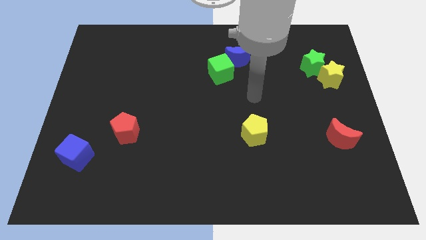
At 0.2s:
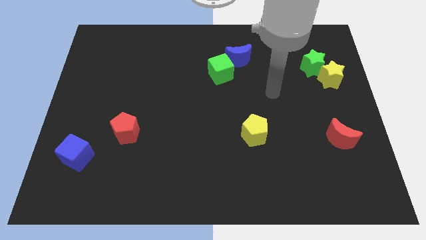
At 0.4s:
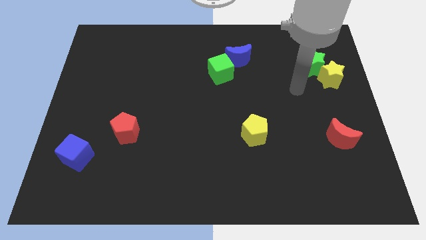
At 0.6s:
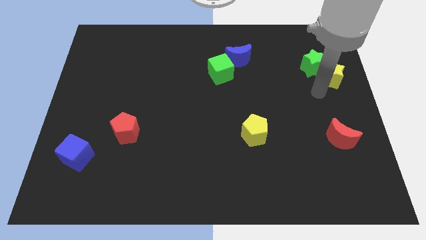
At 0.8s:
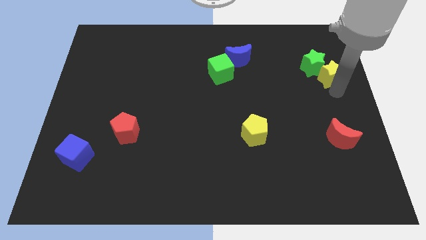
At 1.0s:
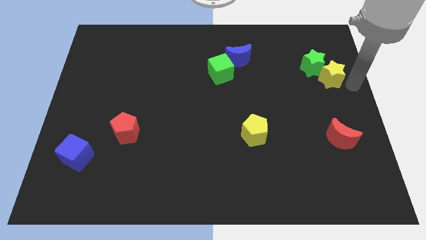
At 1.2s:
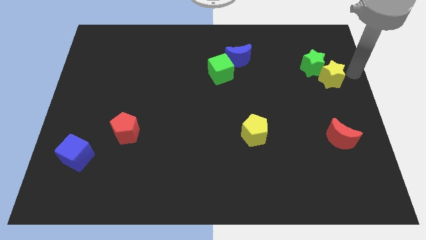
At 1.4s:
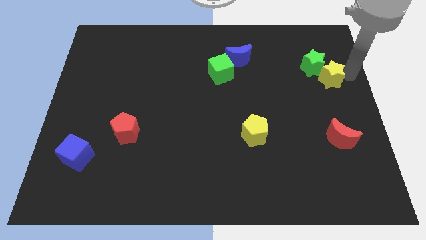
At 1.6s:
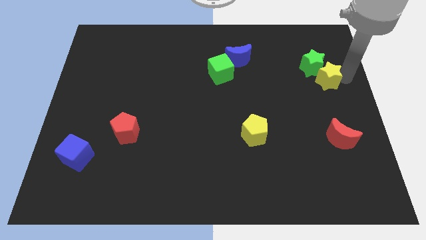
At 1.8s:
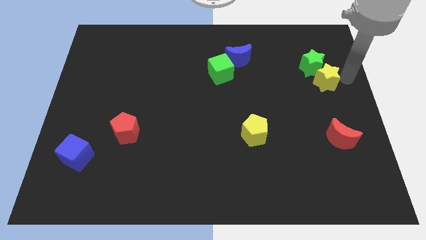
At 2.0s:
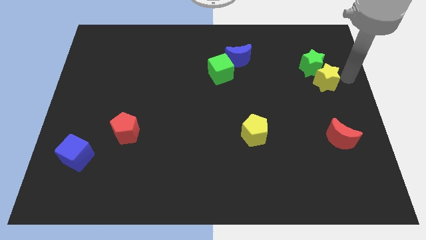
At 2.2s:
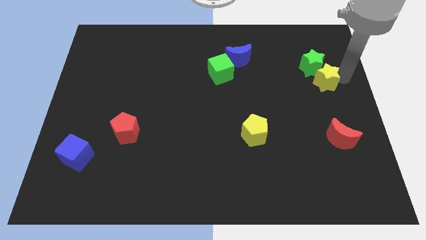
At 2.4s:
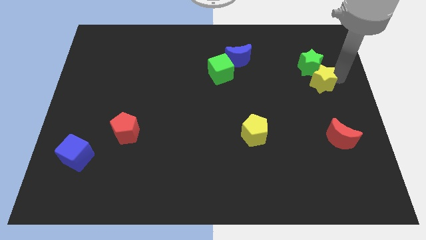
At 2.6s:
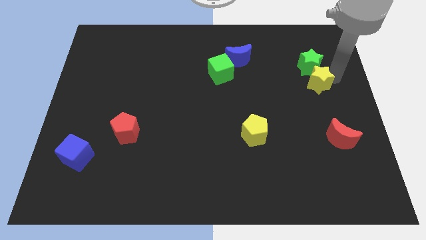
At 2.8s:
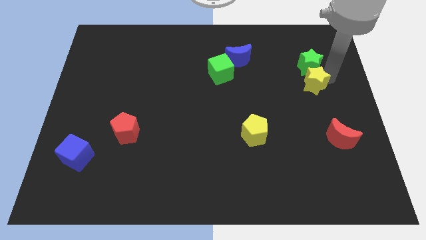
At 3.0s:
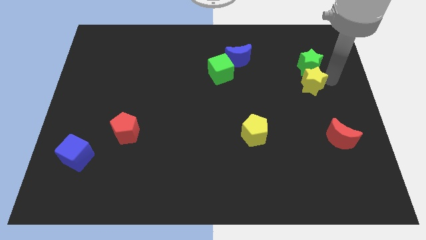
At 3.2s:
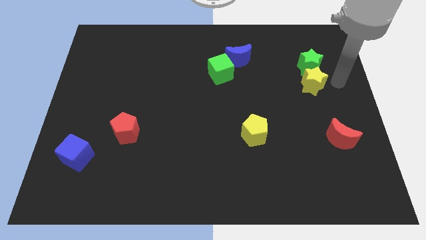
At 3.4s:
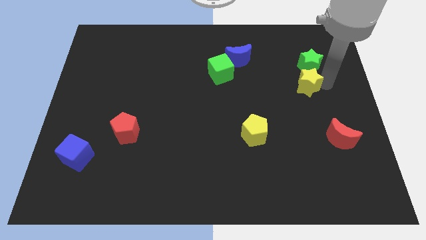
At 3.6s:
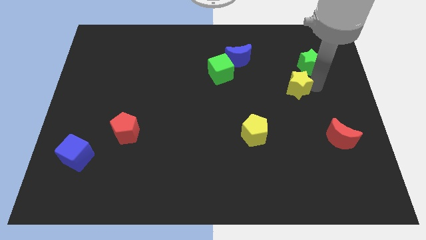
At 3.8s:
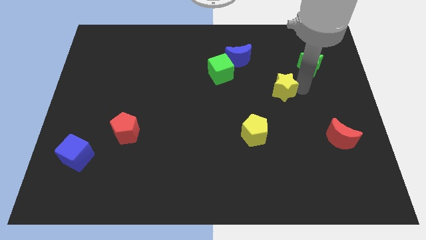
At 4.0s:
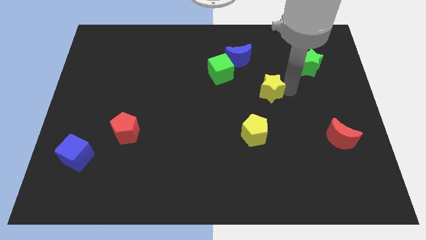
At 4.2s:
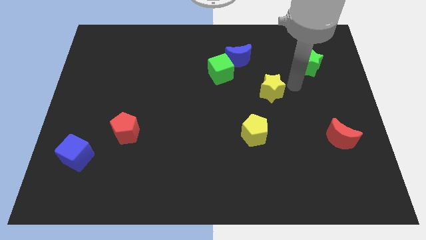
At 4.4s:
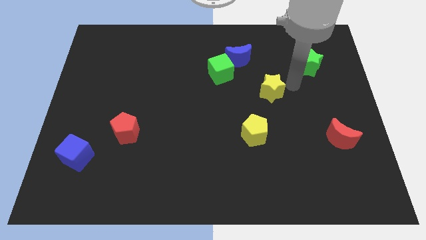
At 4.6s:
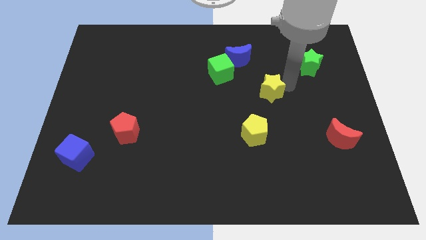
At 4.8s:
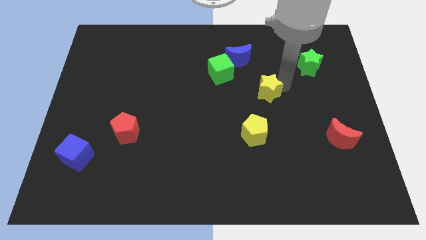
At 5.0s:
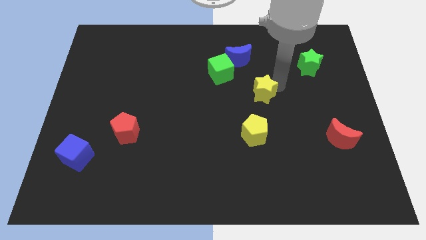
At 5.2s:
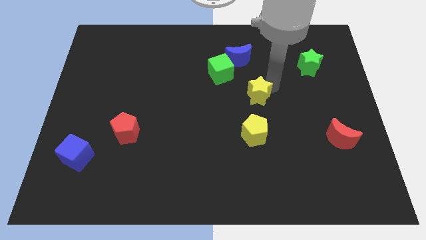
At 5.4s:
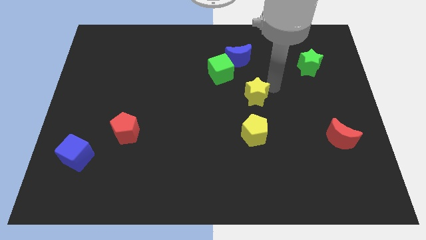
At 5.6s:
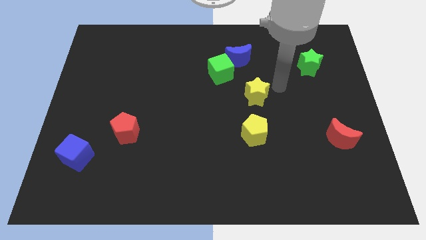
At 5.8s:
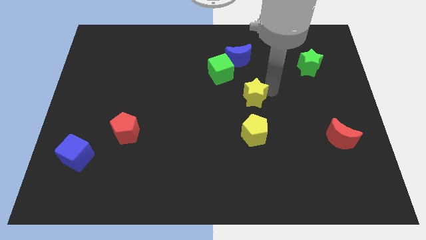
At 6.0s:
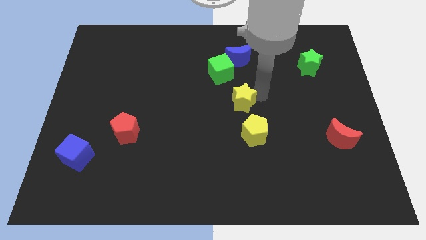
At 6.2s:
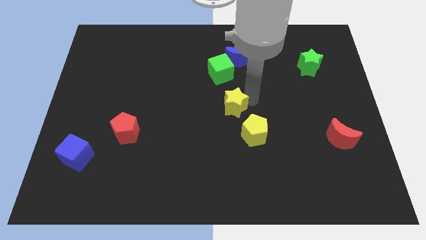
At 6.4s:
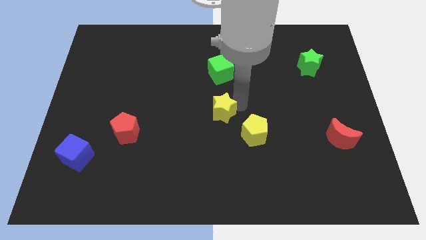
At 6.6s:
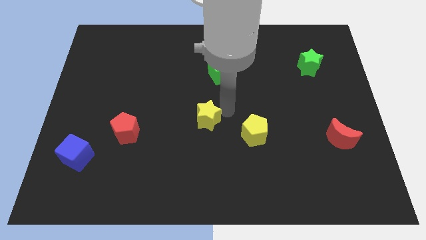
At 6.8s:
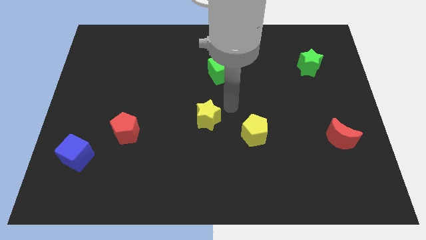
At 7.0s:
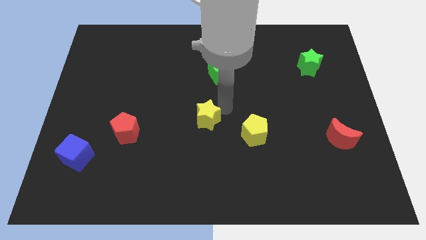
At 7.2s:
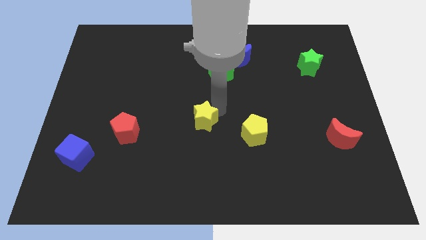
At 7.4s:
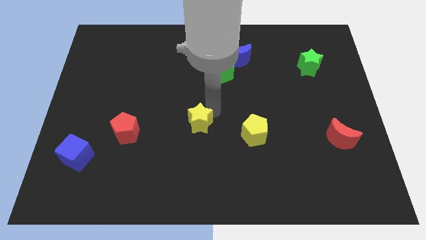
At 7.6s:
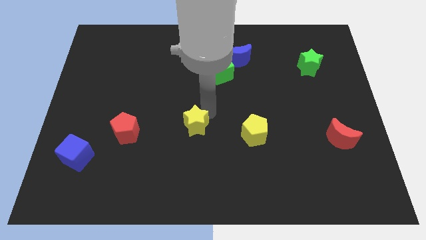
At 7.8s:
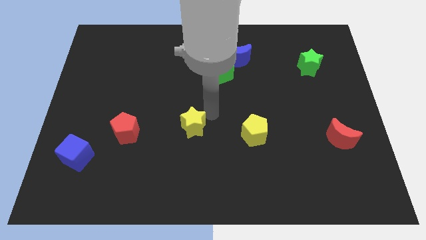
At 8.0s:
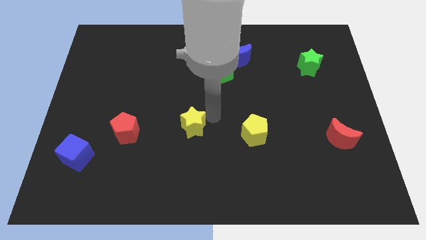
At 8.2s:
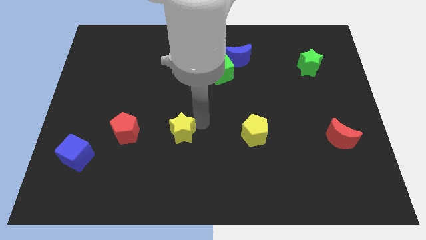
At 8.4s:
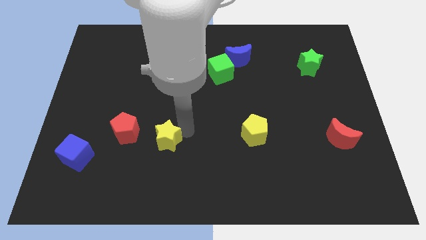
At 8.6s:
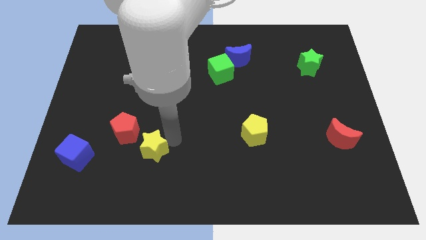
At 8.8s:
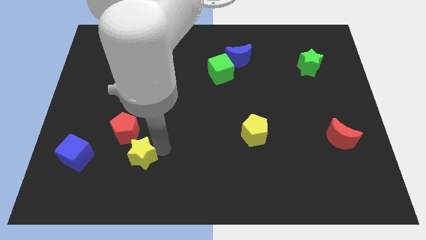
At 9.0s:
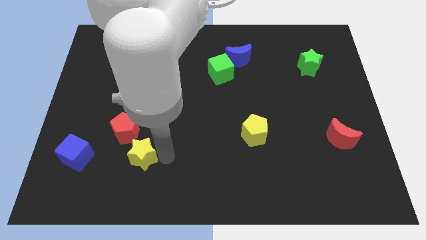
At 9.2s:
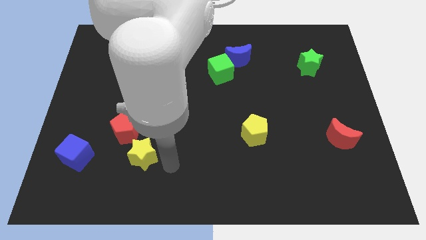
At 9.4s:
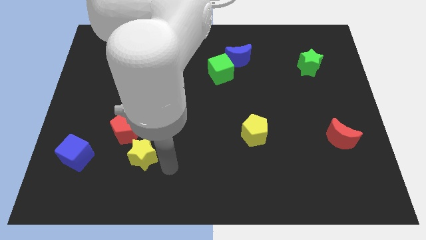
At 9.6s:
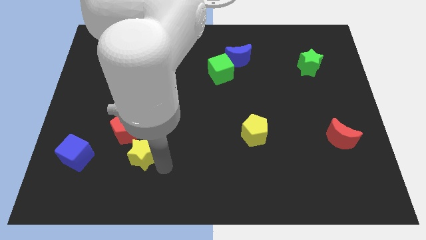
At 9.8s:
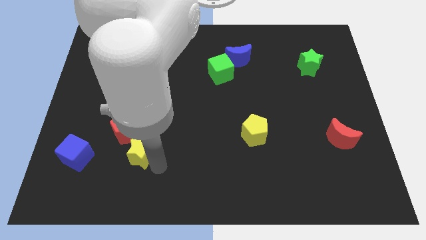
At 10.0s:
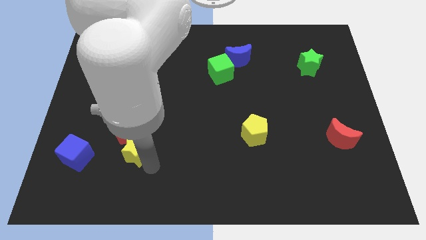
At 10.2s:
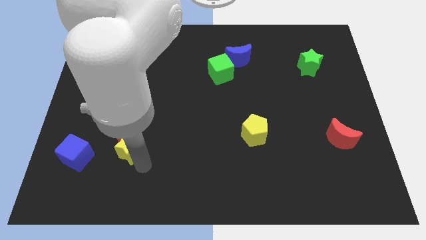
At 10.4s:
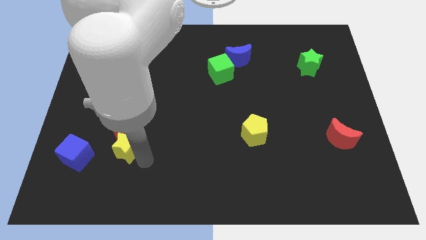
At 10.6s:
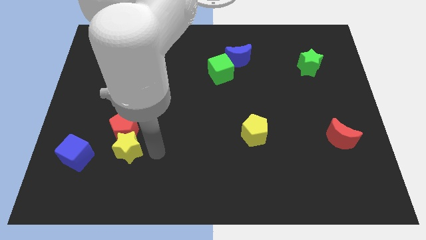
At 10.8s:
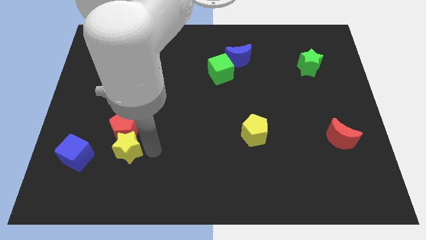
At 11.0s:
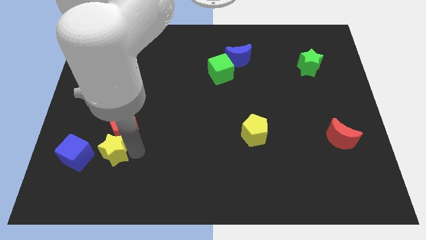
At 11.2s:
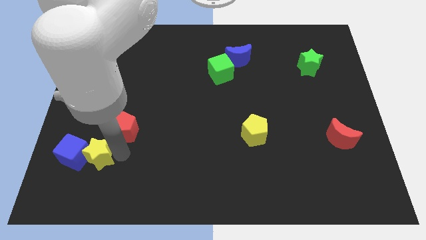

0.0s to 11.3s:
move the yellow star next to the blue cube

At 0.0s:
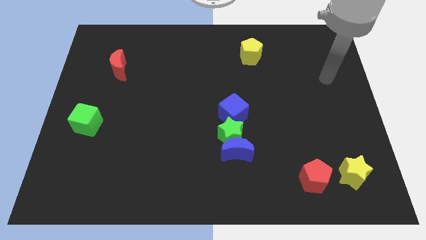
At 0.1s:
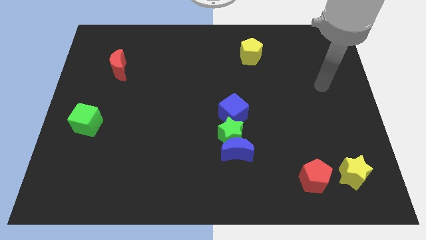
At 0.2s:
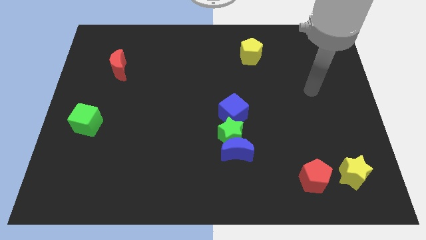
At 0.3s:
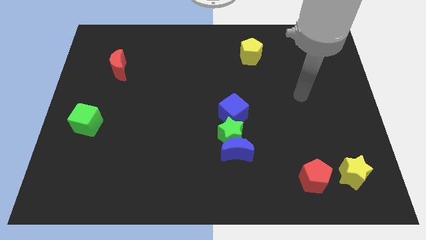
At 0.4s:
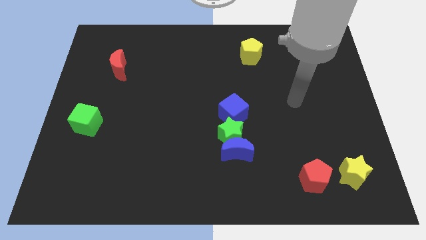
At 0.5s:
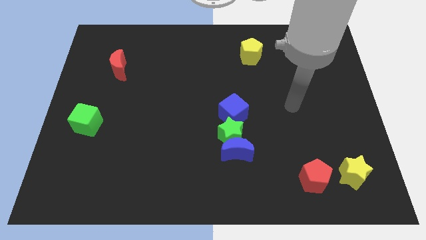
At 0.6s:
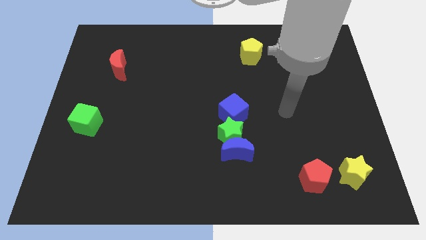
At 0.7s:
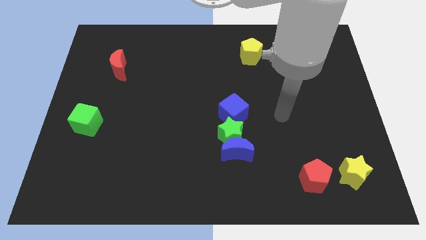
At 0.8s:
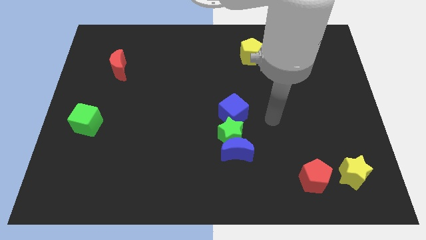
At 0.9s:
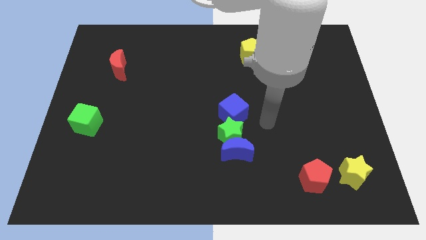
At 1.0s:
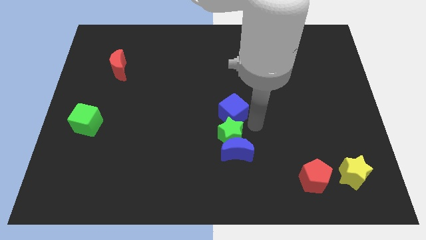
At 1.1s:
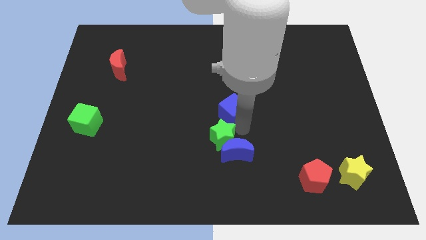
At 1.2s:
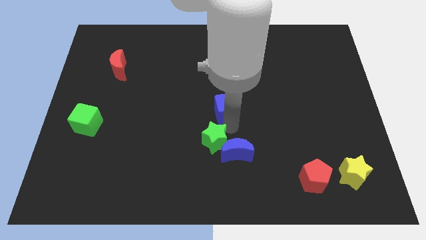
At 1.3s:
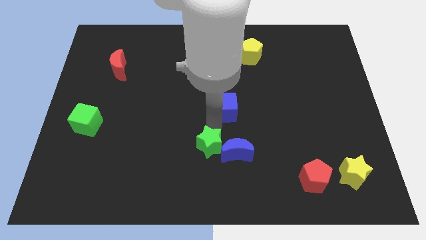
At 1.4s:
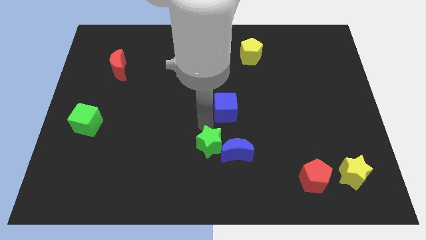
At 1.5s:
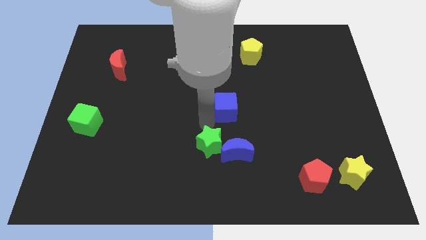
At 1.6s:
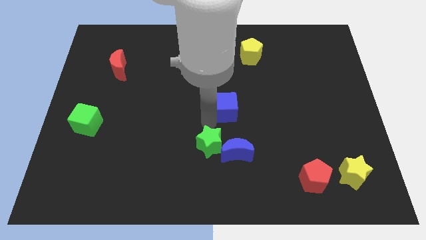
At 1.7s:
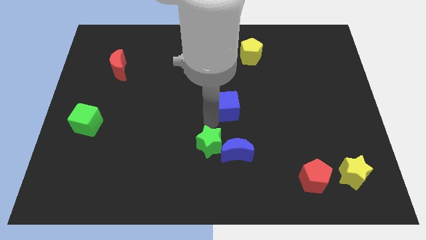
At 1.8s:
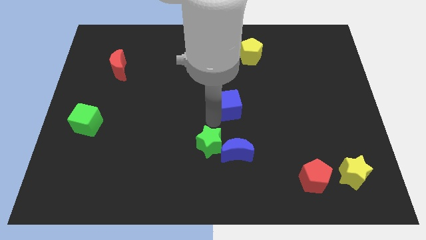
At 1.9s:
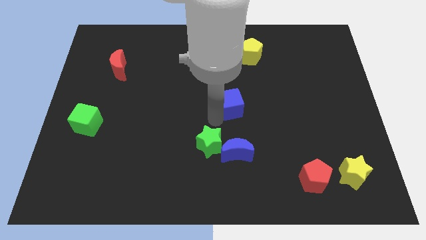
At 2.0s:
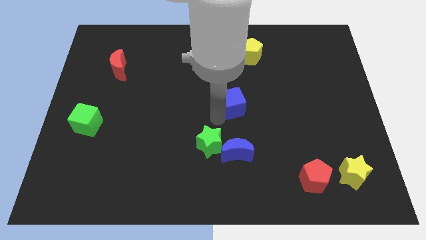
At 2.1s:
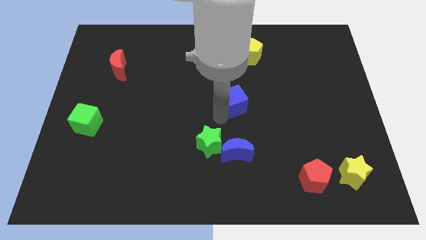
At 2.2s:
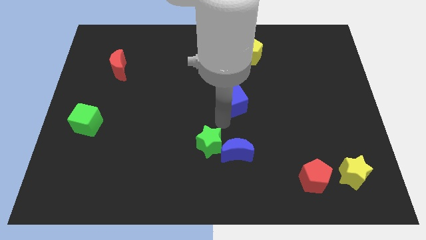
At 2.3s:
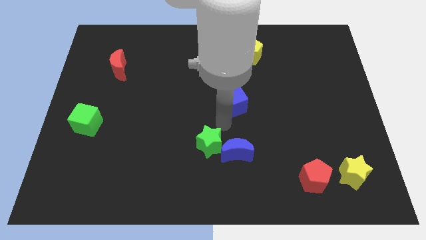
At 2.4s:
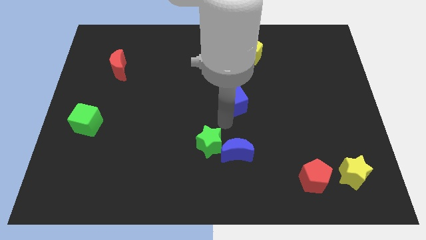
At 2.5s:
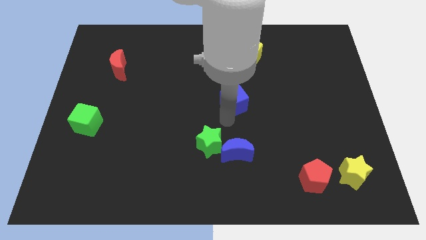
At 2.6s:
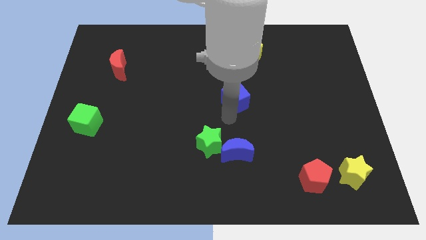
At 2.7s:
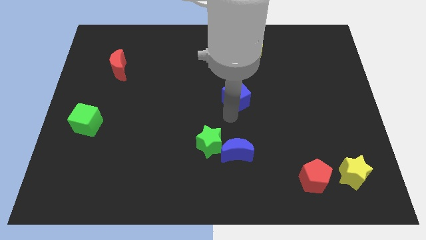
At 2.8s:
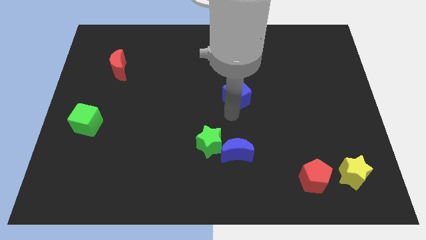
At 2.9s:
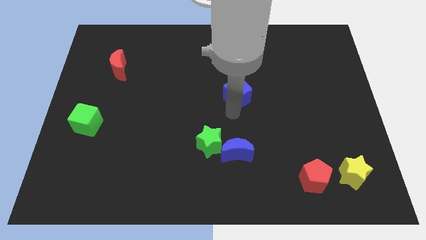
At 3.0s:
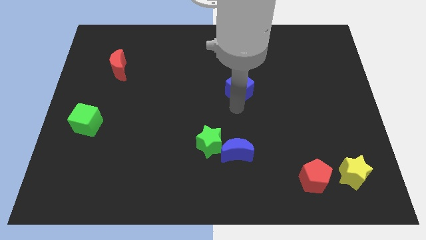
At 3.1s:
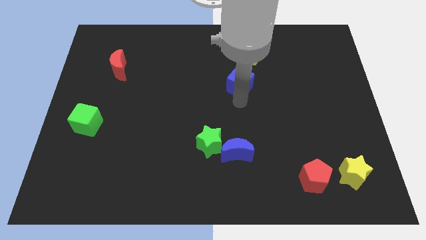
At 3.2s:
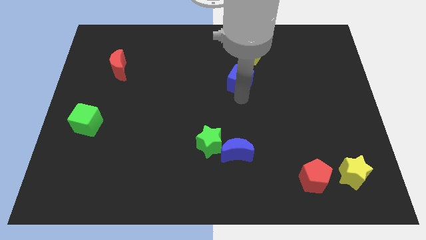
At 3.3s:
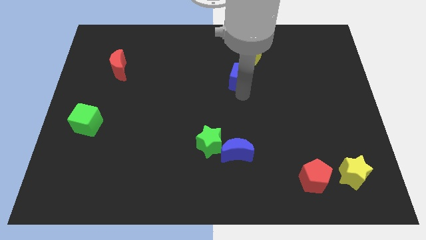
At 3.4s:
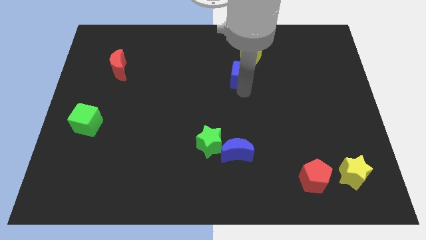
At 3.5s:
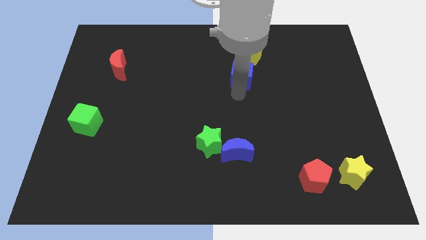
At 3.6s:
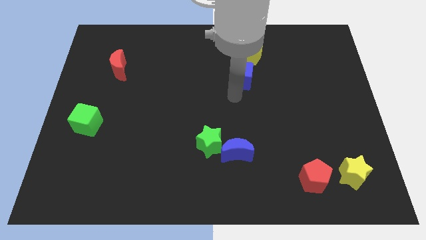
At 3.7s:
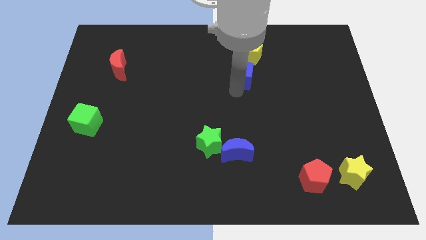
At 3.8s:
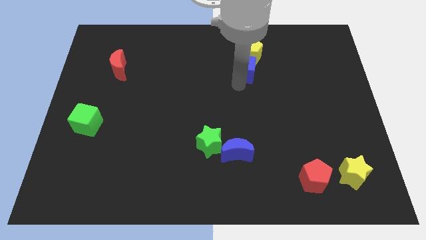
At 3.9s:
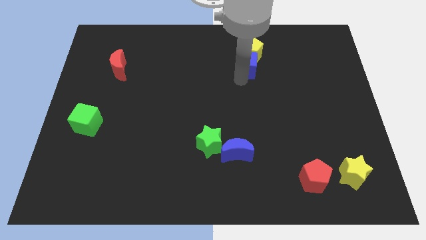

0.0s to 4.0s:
push the blue cube close to the yellow pentagon
